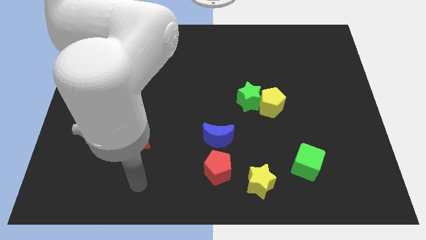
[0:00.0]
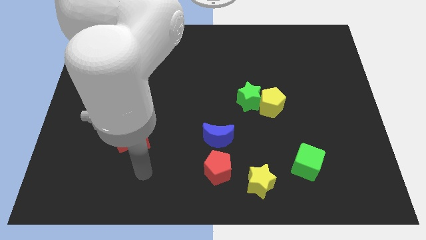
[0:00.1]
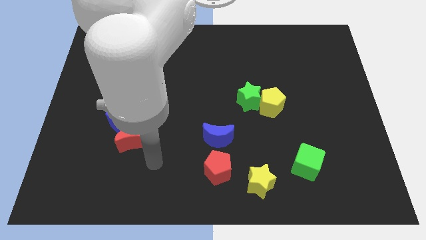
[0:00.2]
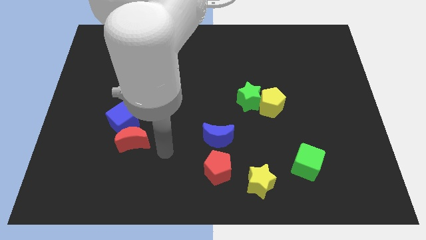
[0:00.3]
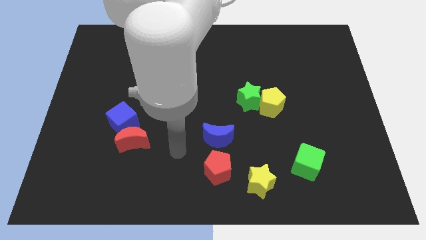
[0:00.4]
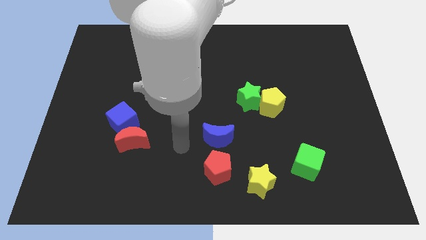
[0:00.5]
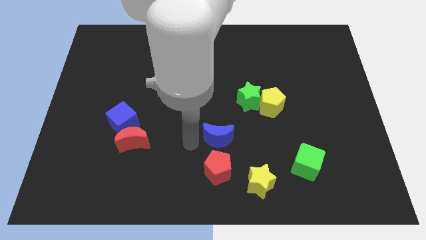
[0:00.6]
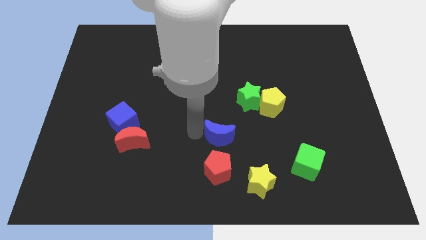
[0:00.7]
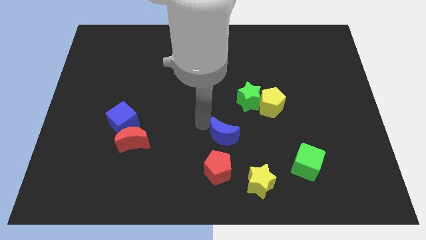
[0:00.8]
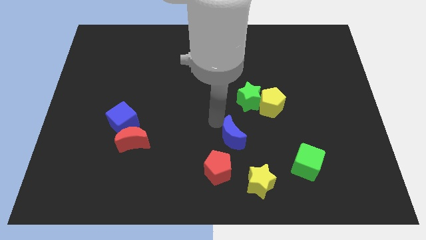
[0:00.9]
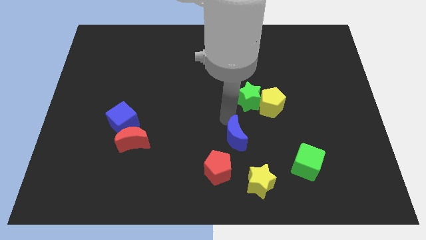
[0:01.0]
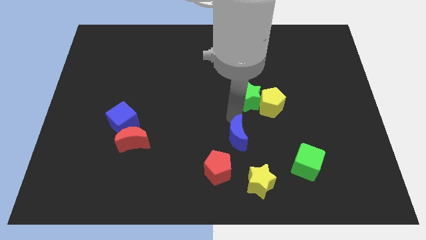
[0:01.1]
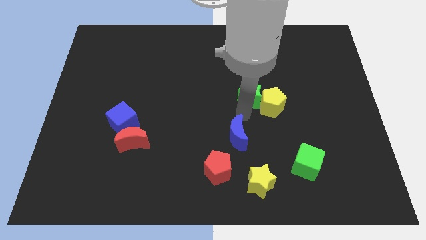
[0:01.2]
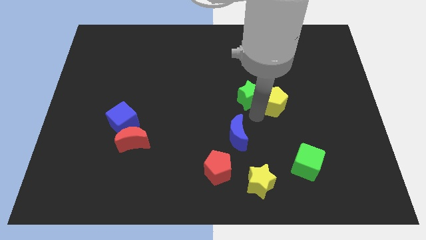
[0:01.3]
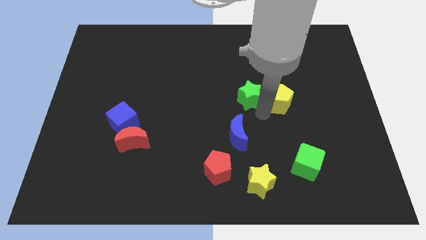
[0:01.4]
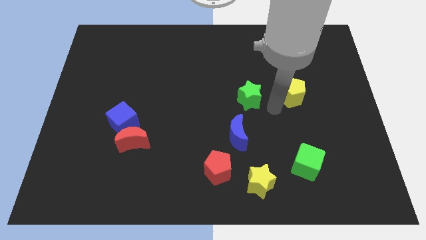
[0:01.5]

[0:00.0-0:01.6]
separate the green star from the yellow pentagon

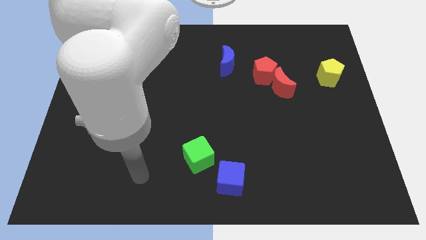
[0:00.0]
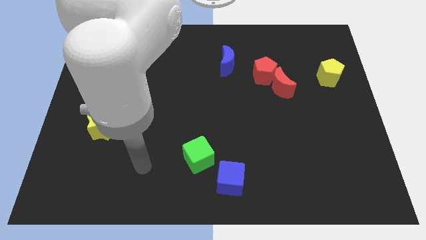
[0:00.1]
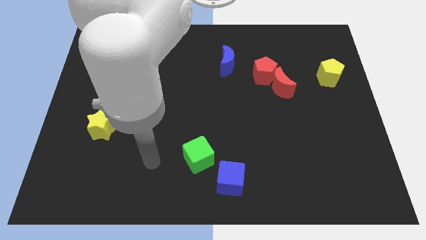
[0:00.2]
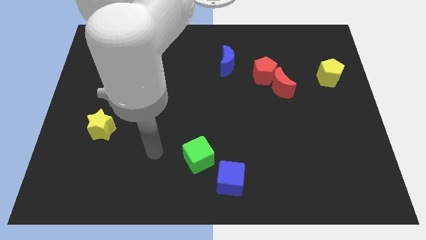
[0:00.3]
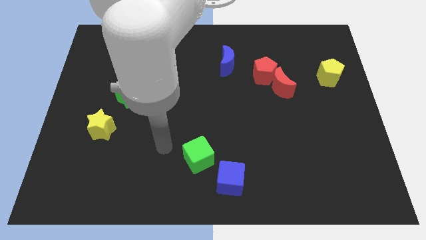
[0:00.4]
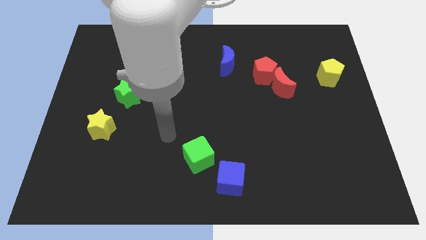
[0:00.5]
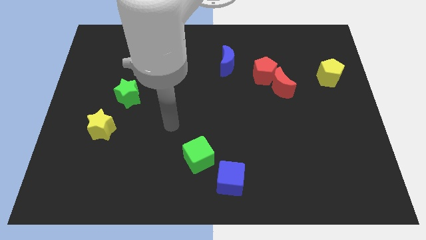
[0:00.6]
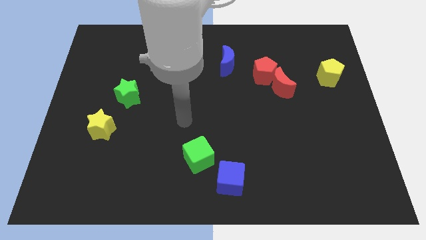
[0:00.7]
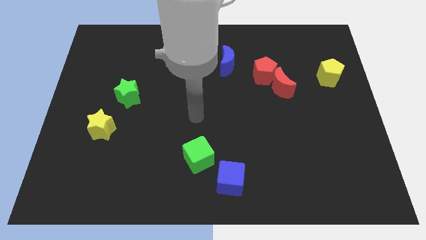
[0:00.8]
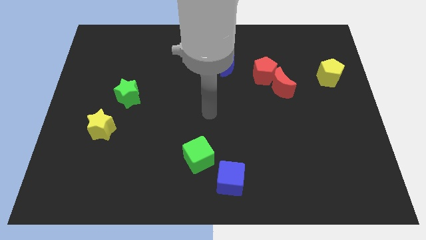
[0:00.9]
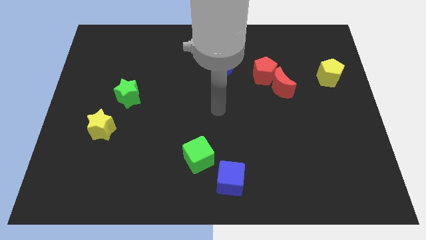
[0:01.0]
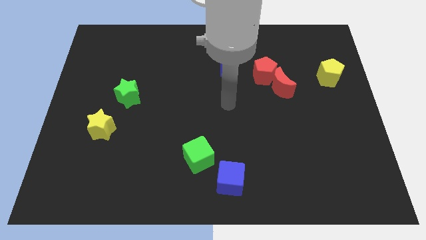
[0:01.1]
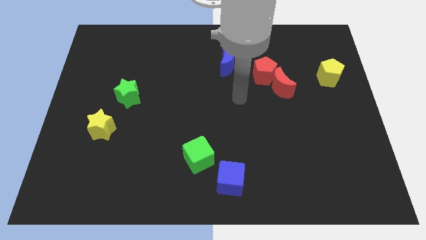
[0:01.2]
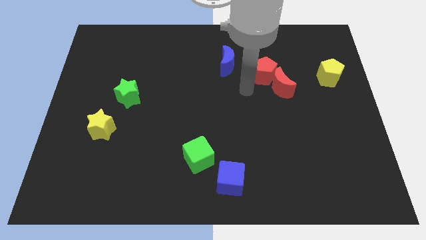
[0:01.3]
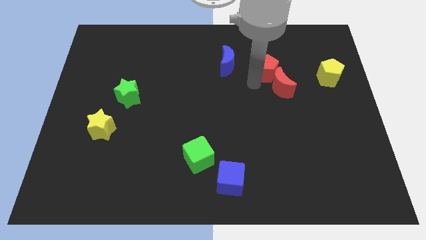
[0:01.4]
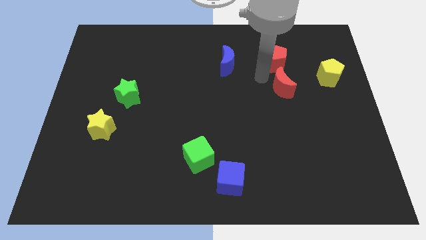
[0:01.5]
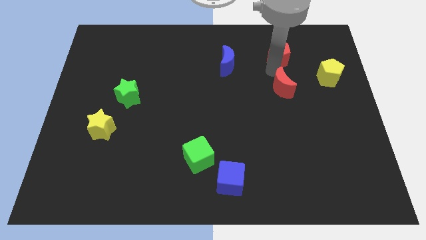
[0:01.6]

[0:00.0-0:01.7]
separate the red moon from the red pentagon

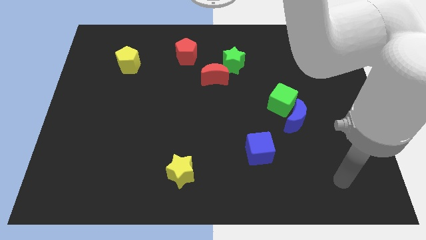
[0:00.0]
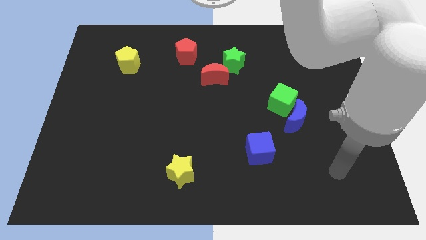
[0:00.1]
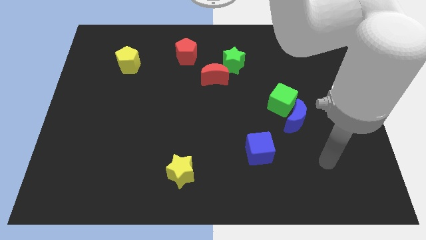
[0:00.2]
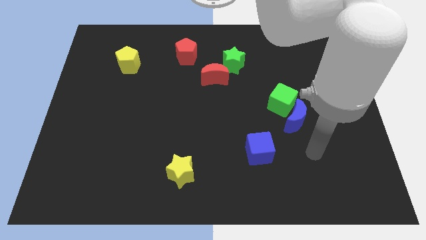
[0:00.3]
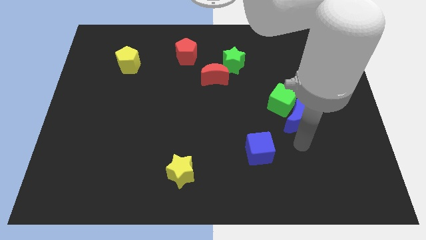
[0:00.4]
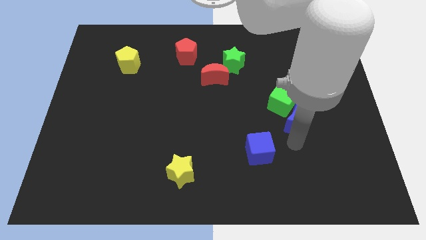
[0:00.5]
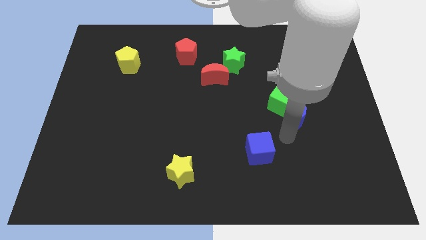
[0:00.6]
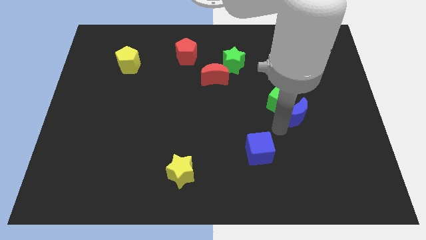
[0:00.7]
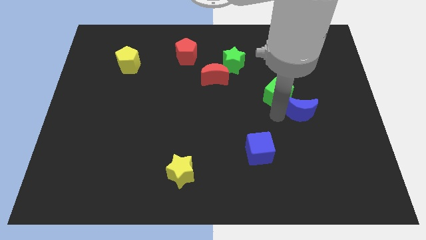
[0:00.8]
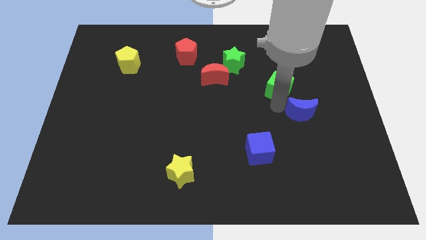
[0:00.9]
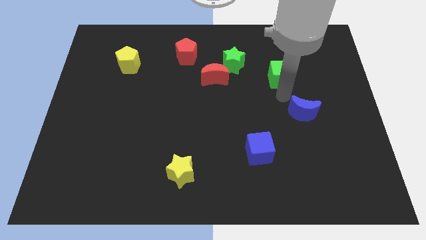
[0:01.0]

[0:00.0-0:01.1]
move the blue moon away from the green cube

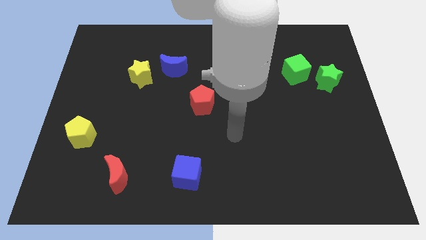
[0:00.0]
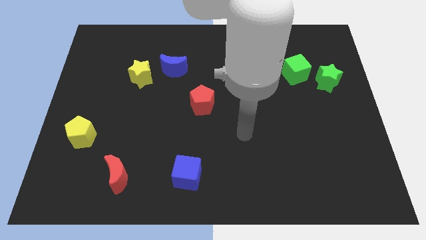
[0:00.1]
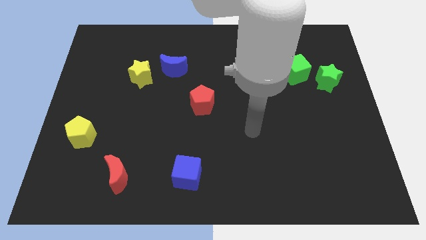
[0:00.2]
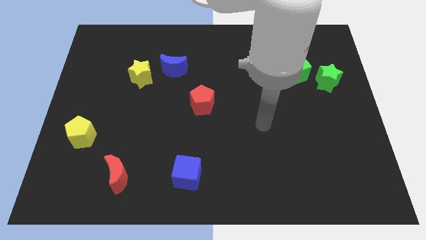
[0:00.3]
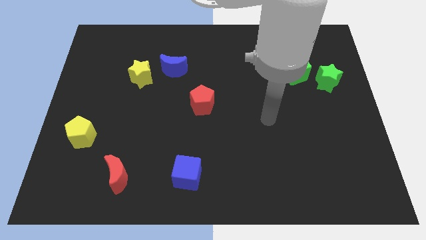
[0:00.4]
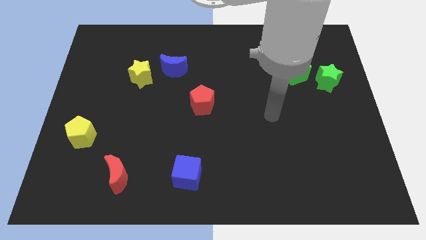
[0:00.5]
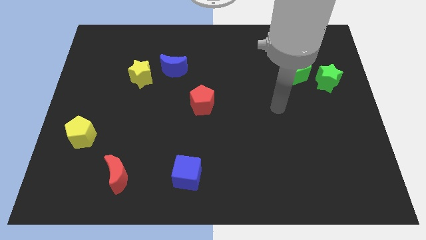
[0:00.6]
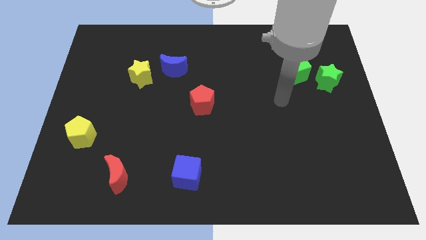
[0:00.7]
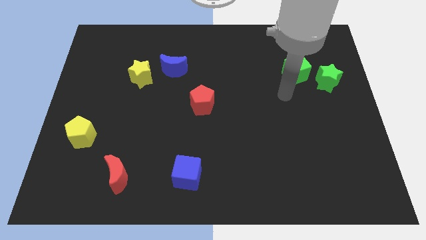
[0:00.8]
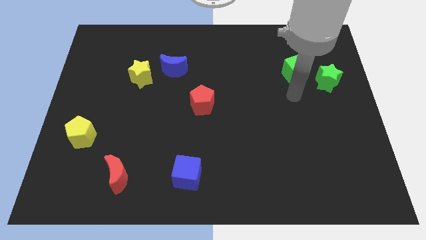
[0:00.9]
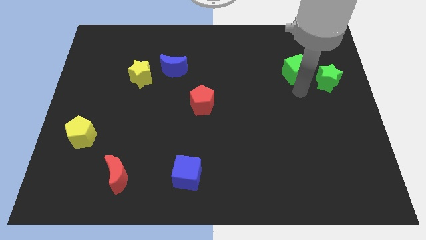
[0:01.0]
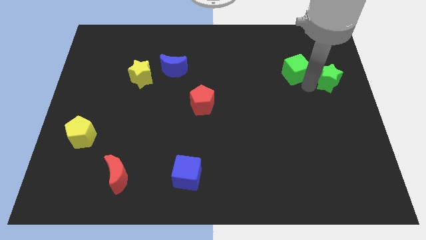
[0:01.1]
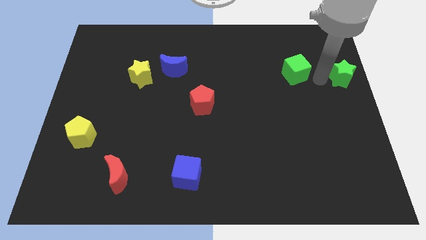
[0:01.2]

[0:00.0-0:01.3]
move the green cube away from the green star

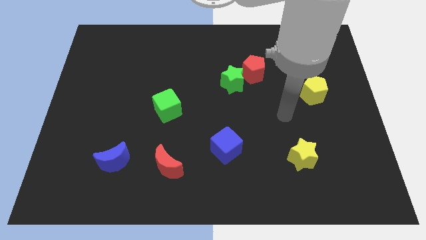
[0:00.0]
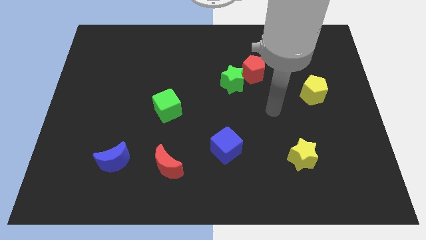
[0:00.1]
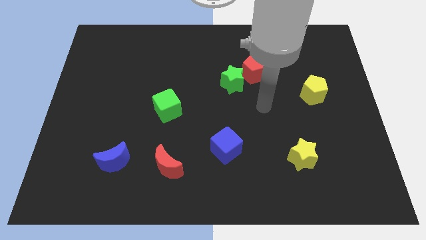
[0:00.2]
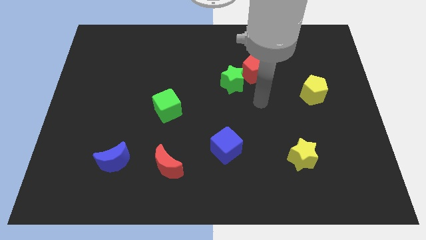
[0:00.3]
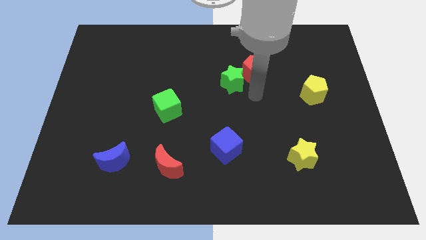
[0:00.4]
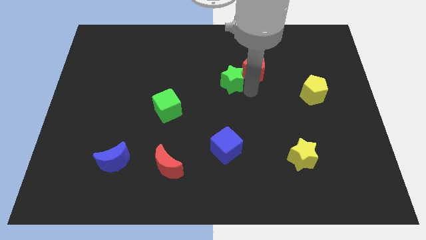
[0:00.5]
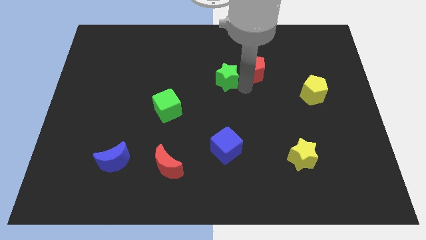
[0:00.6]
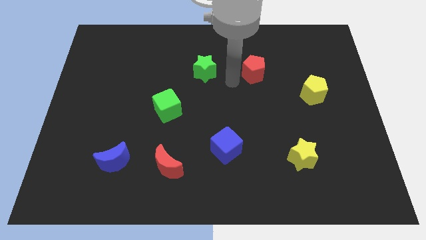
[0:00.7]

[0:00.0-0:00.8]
pull the red pentagon apart from the green star

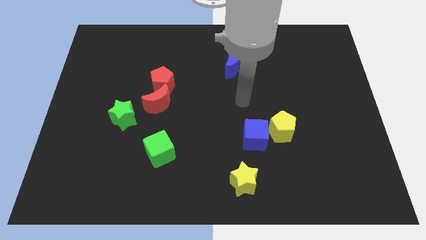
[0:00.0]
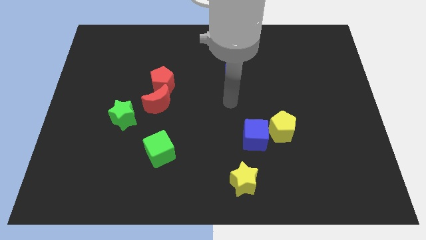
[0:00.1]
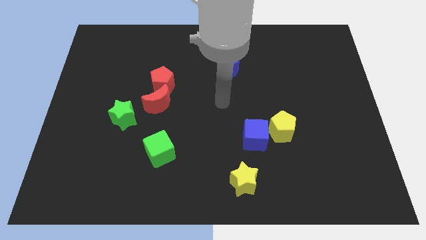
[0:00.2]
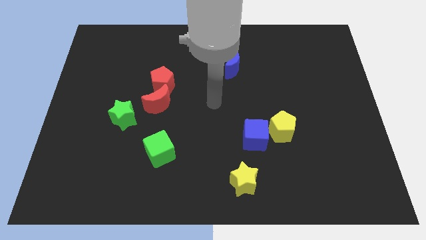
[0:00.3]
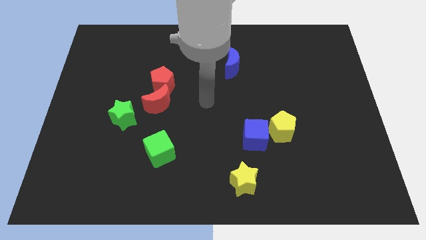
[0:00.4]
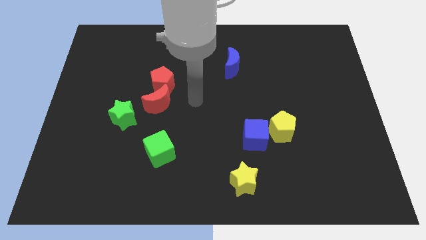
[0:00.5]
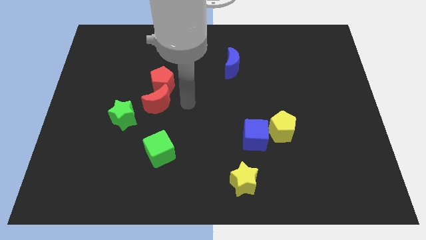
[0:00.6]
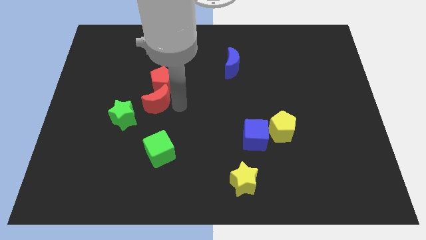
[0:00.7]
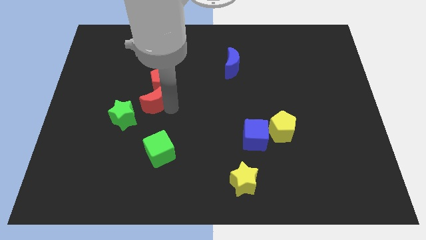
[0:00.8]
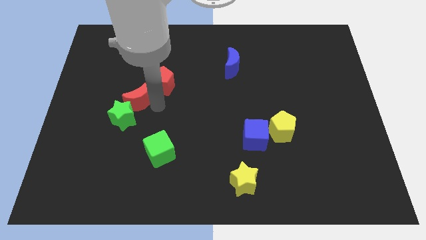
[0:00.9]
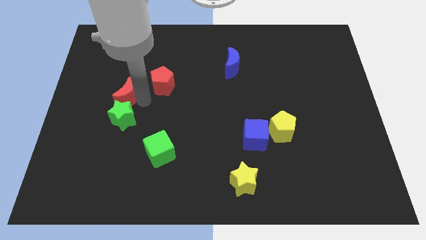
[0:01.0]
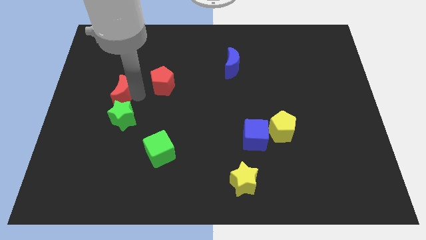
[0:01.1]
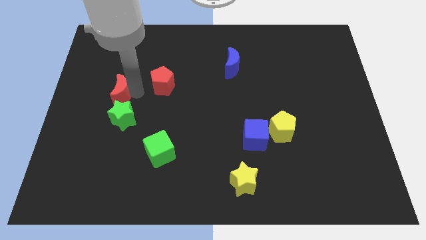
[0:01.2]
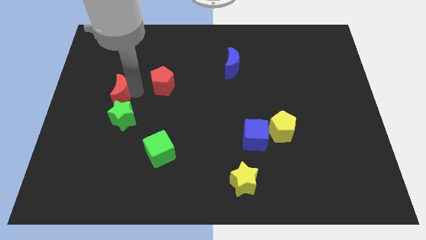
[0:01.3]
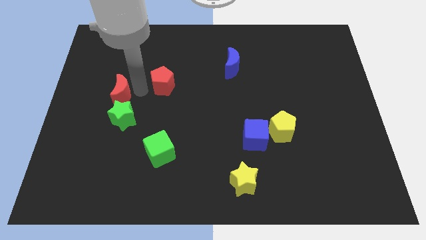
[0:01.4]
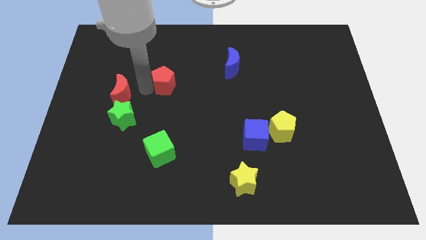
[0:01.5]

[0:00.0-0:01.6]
move the red pentagon away from the red moon

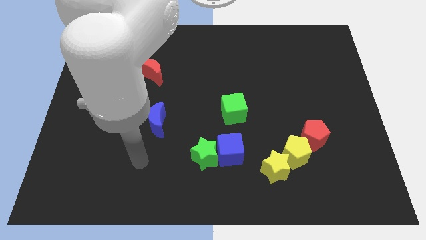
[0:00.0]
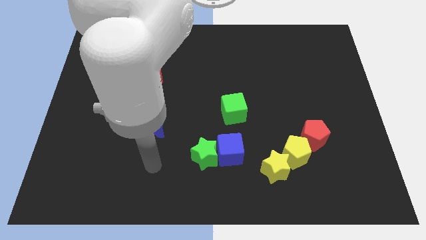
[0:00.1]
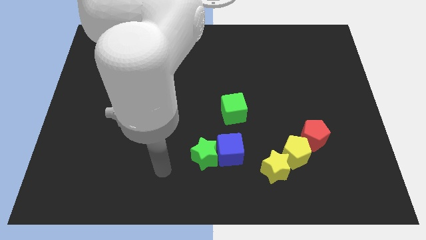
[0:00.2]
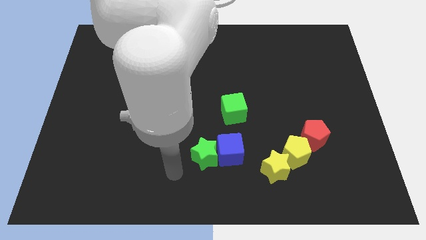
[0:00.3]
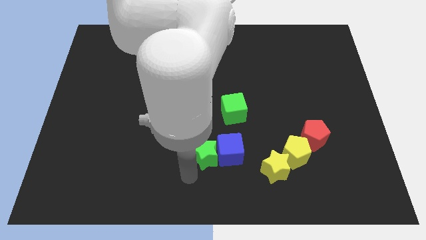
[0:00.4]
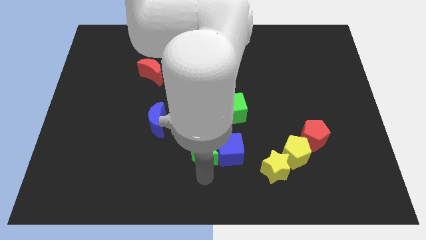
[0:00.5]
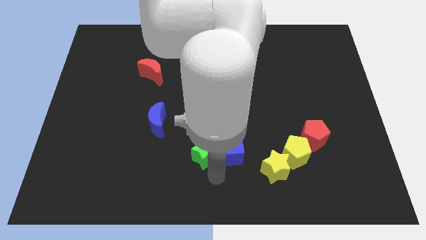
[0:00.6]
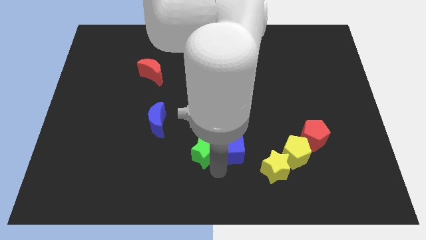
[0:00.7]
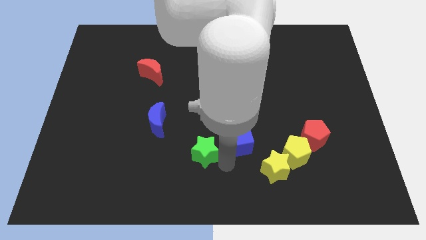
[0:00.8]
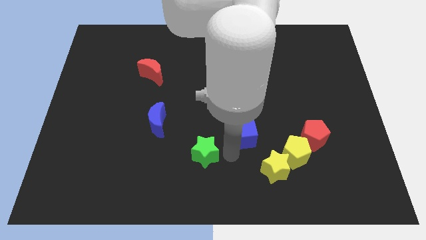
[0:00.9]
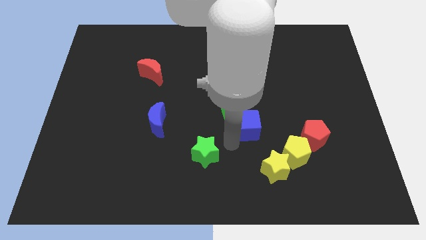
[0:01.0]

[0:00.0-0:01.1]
move the green star away from the blue cube

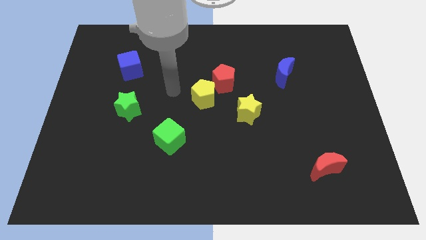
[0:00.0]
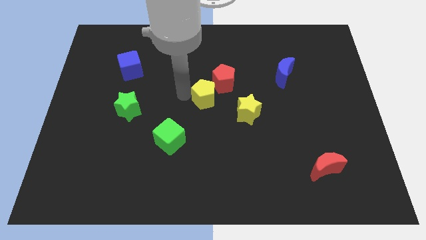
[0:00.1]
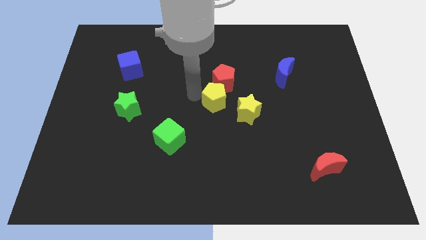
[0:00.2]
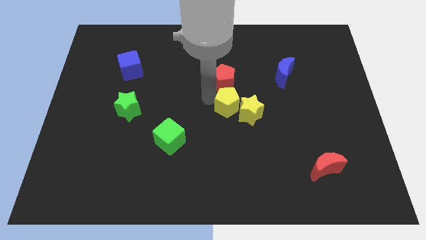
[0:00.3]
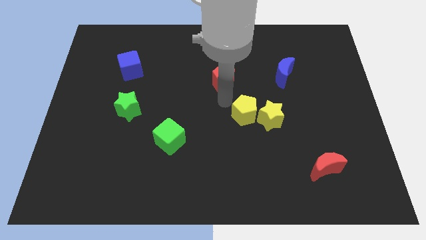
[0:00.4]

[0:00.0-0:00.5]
move the red pentagon away from the yellow pentagon
